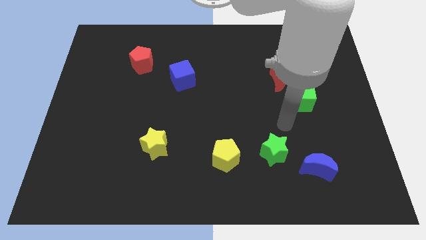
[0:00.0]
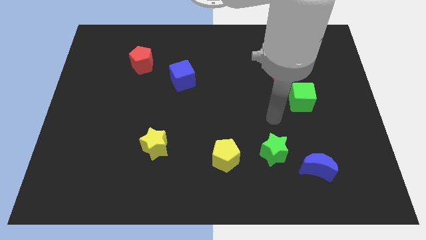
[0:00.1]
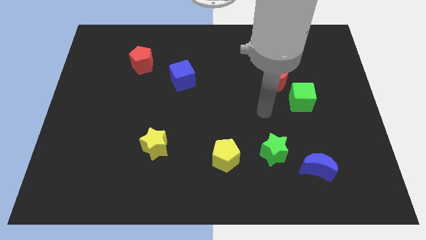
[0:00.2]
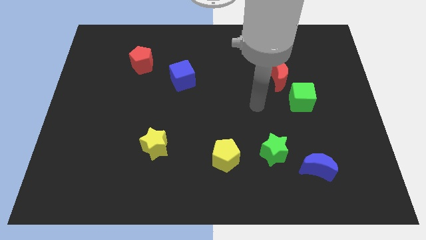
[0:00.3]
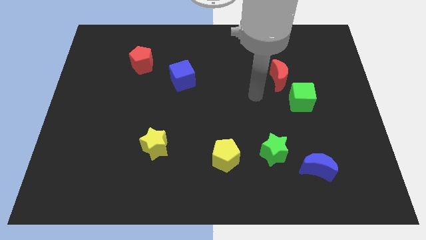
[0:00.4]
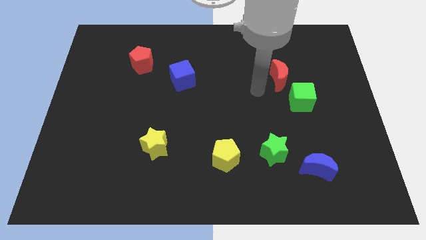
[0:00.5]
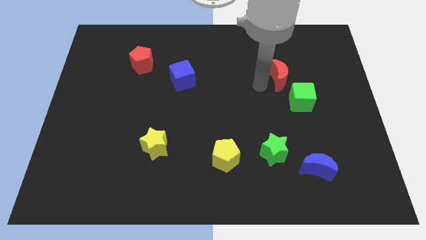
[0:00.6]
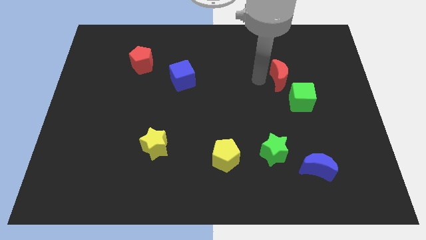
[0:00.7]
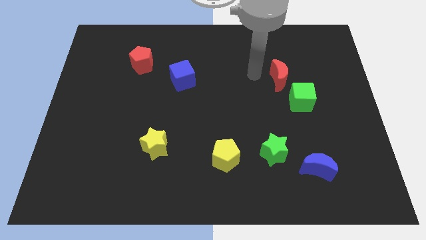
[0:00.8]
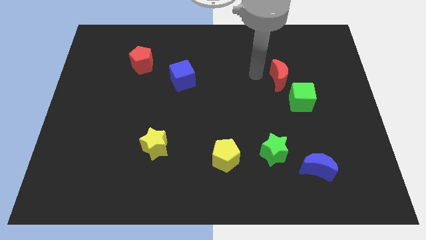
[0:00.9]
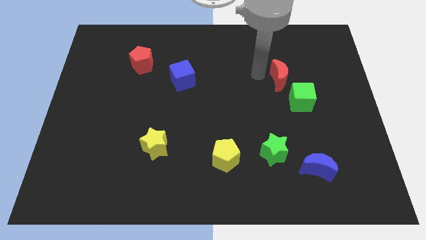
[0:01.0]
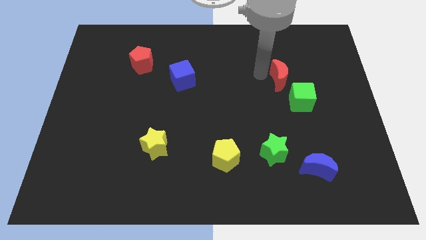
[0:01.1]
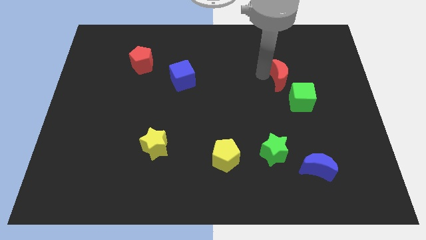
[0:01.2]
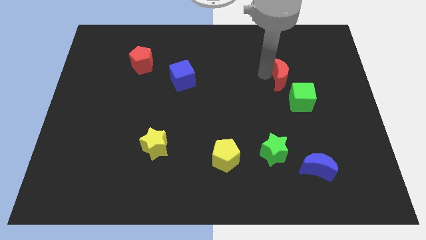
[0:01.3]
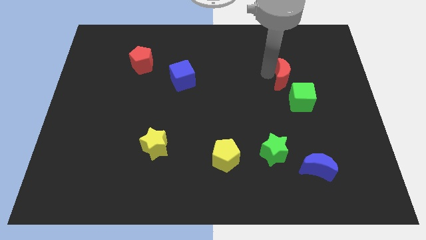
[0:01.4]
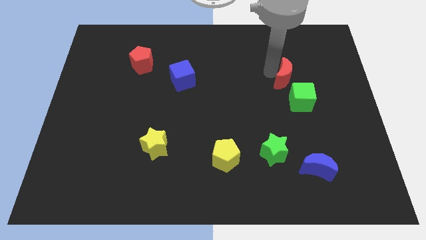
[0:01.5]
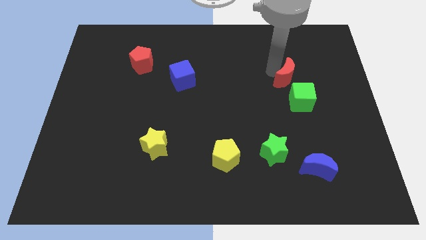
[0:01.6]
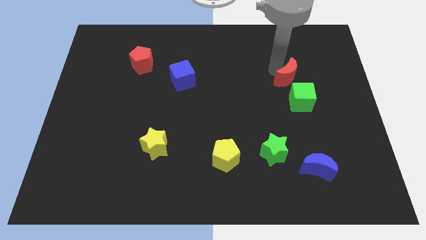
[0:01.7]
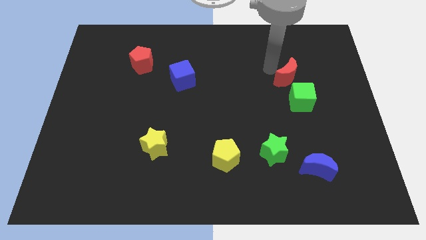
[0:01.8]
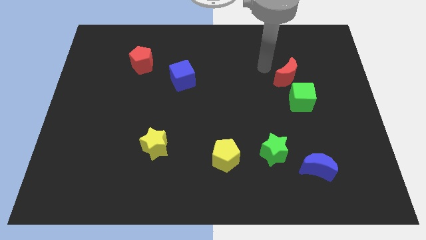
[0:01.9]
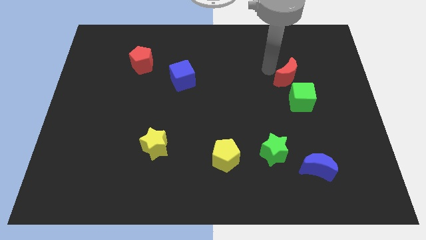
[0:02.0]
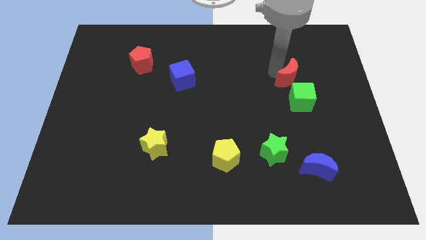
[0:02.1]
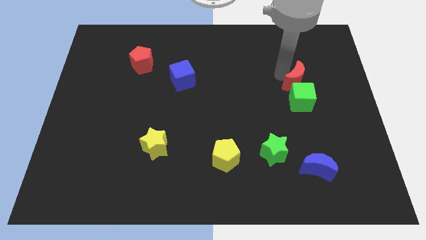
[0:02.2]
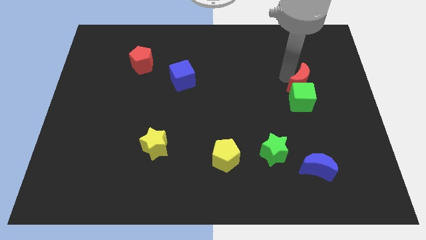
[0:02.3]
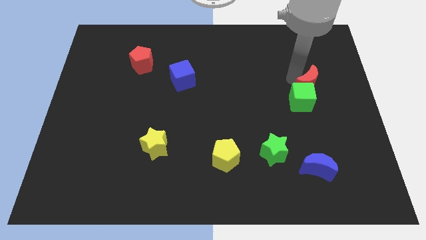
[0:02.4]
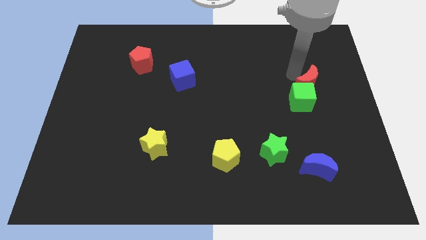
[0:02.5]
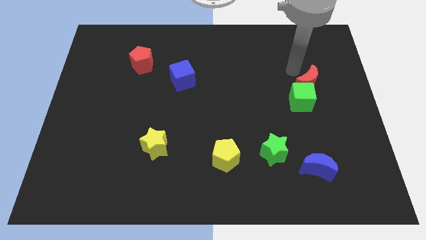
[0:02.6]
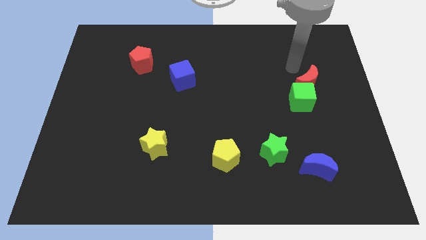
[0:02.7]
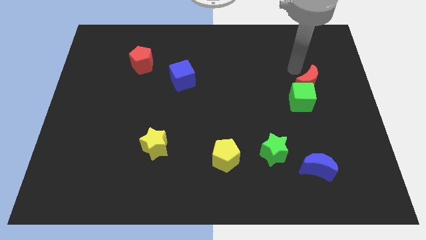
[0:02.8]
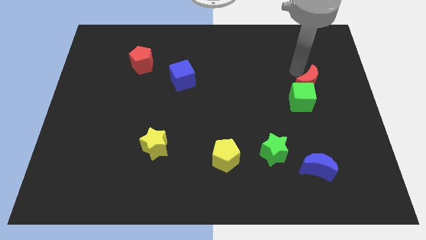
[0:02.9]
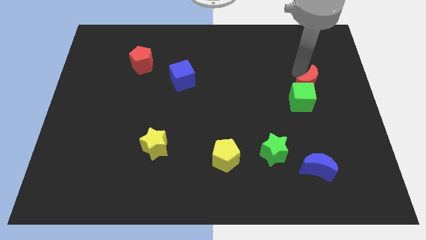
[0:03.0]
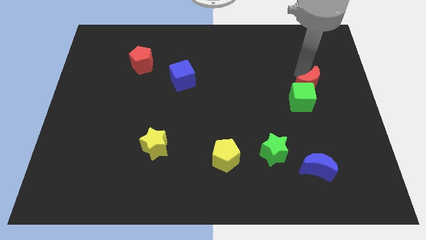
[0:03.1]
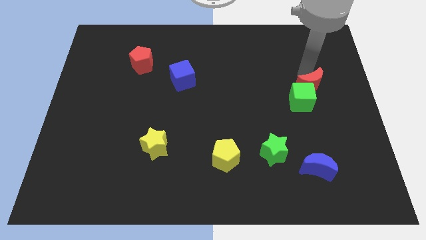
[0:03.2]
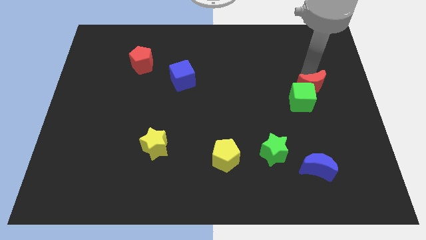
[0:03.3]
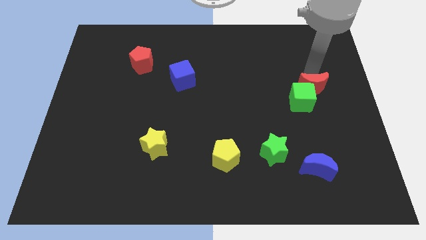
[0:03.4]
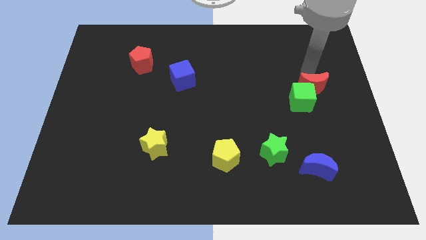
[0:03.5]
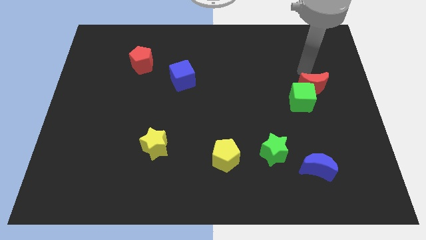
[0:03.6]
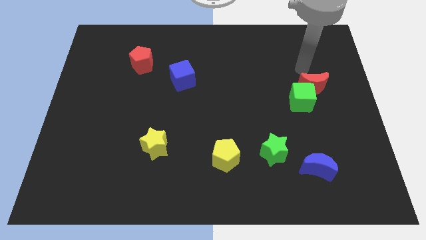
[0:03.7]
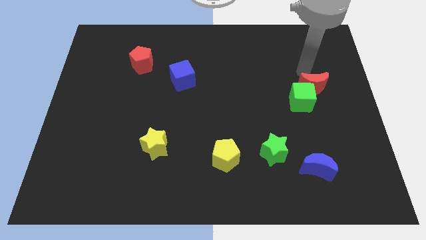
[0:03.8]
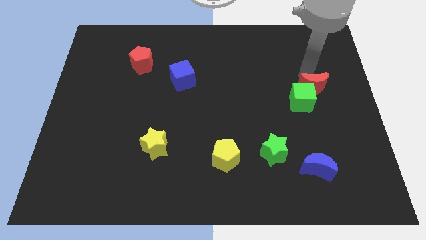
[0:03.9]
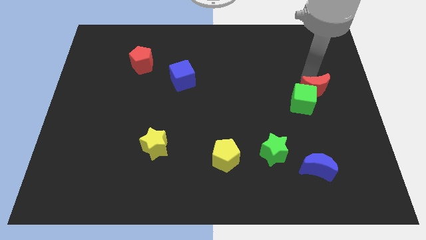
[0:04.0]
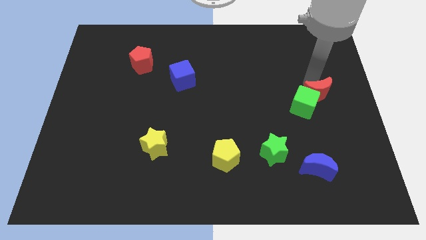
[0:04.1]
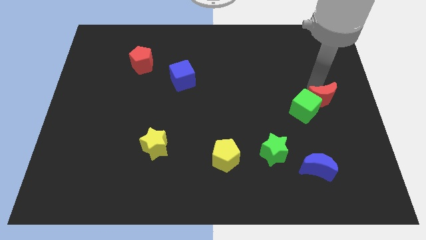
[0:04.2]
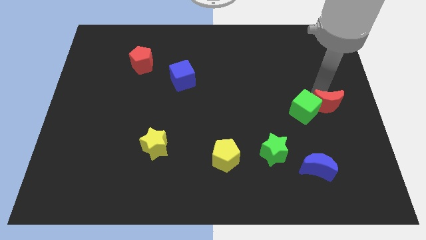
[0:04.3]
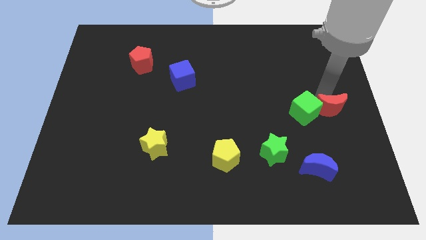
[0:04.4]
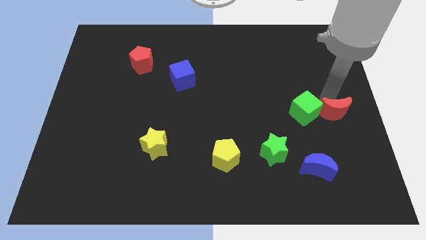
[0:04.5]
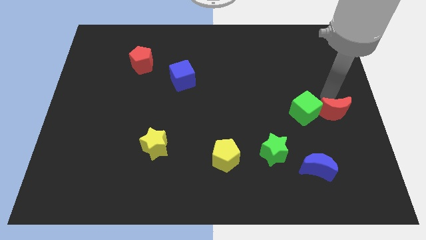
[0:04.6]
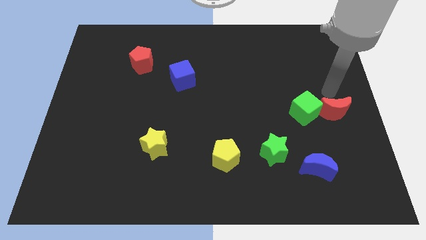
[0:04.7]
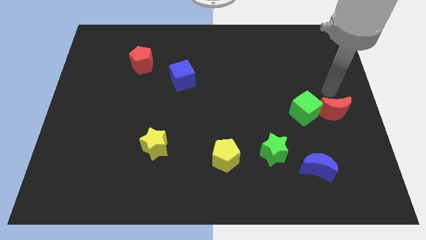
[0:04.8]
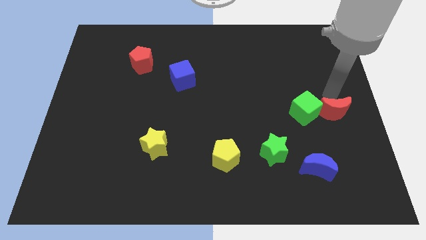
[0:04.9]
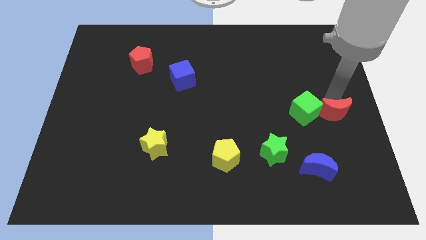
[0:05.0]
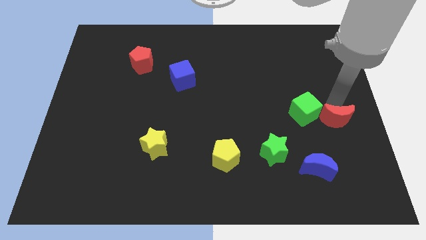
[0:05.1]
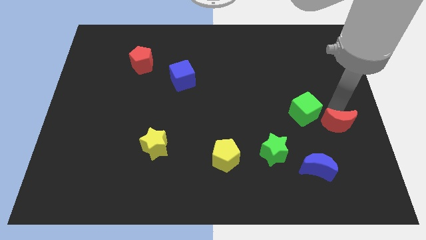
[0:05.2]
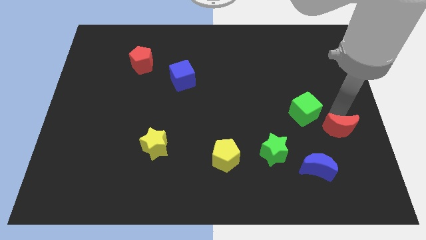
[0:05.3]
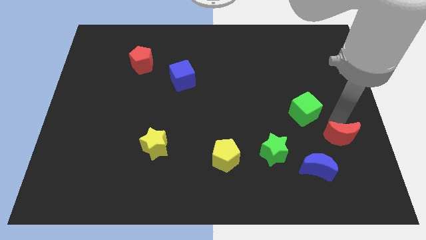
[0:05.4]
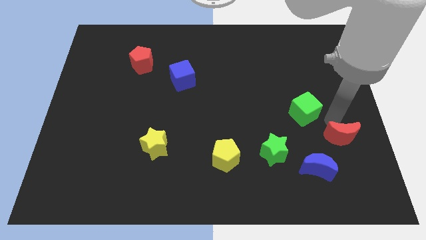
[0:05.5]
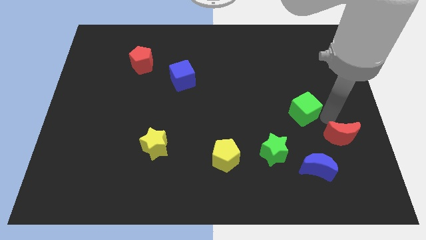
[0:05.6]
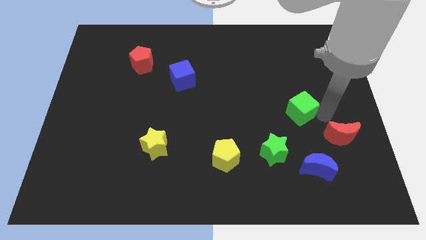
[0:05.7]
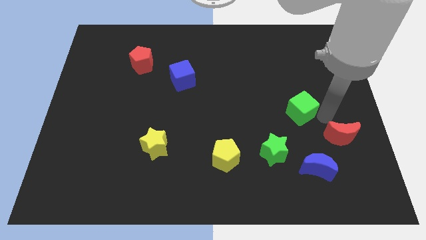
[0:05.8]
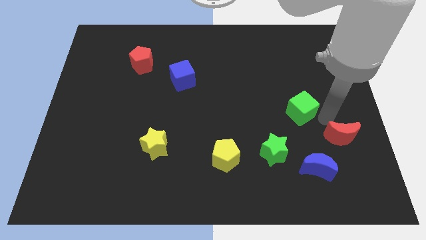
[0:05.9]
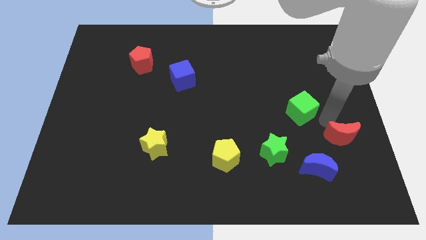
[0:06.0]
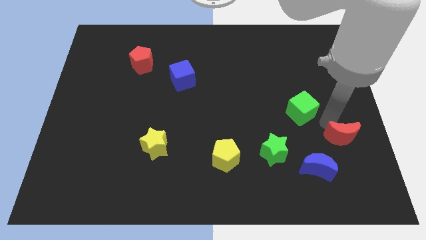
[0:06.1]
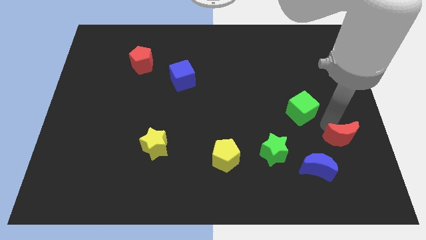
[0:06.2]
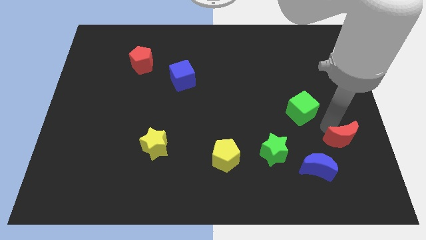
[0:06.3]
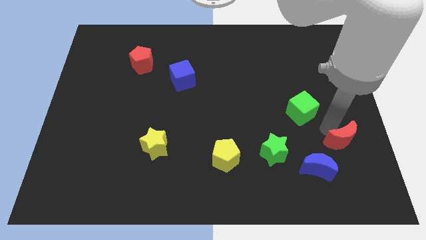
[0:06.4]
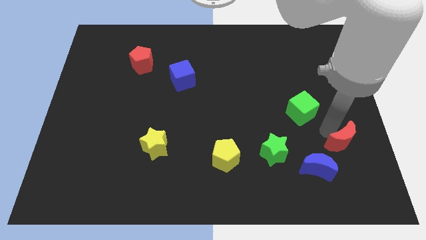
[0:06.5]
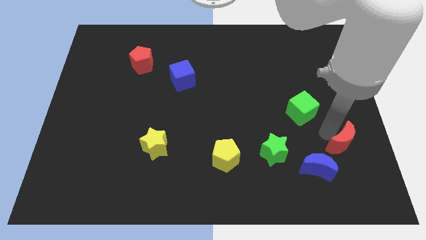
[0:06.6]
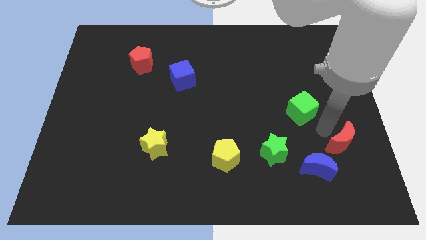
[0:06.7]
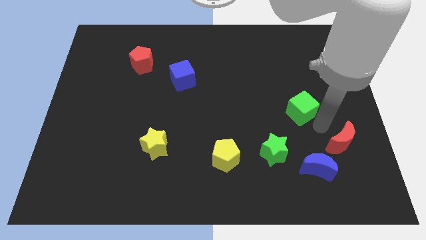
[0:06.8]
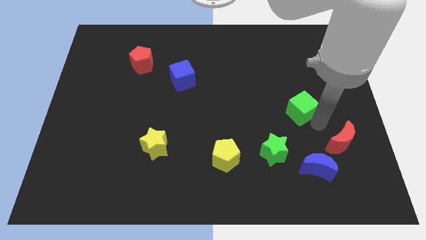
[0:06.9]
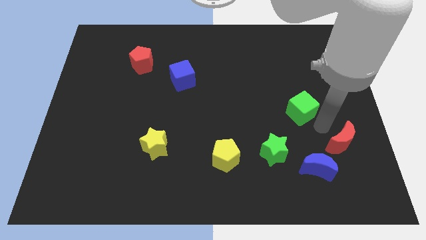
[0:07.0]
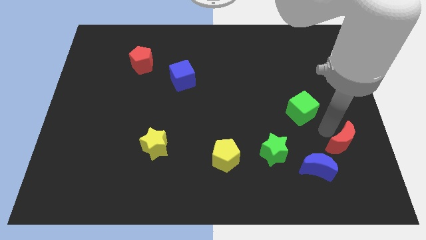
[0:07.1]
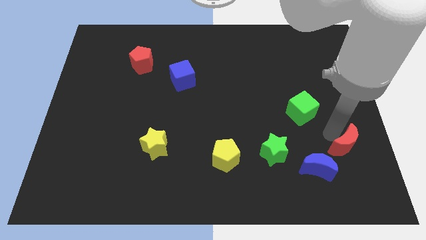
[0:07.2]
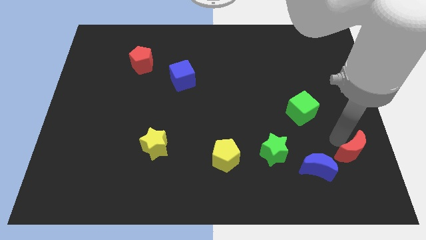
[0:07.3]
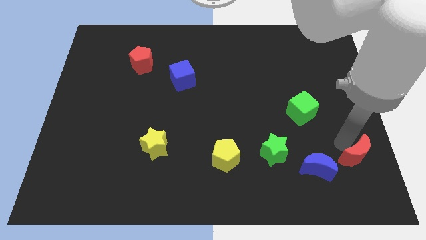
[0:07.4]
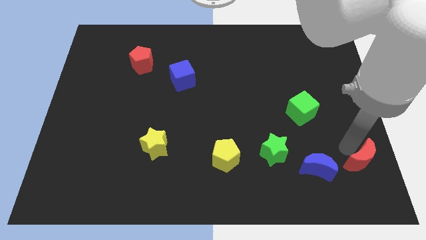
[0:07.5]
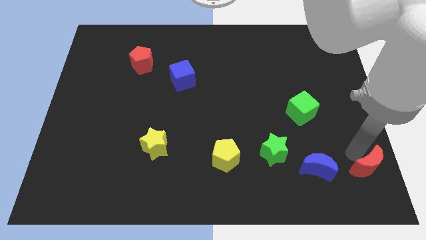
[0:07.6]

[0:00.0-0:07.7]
push the red moon to the lower right corner
